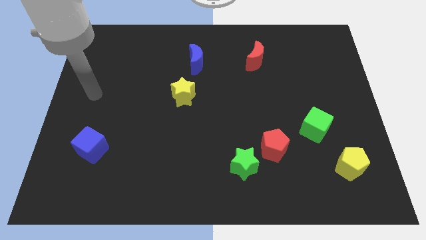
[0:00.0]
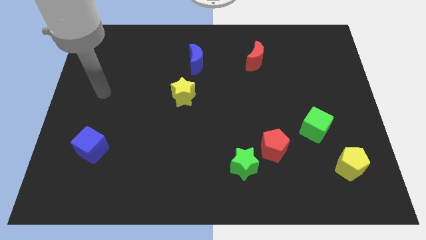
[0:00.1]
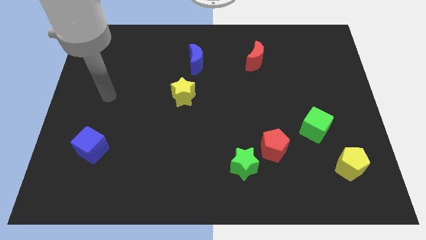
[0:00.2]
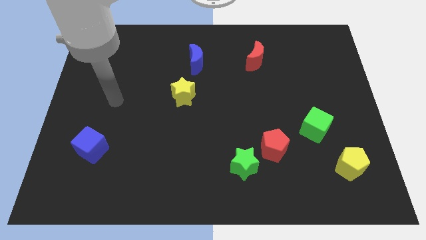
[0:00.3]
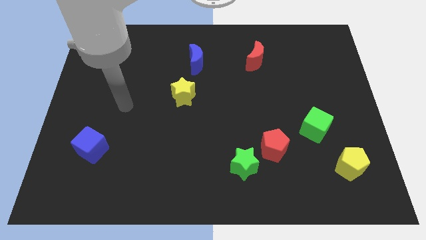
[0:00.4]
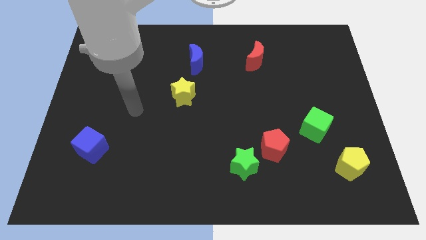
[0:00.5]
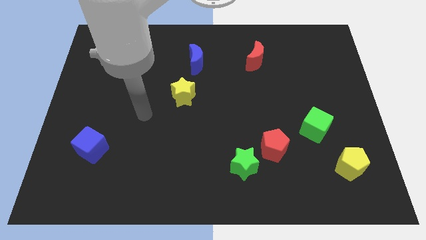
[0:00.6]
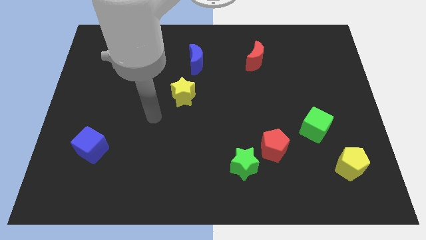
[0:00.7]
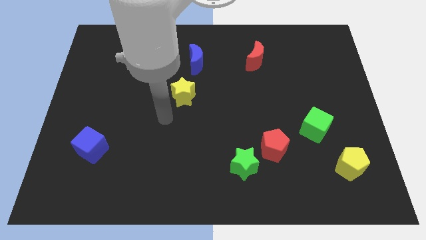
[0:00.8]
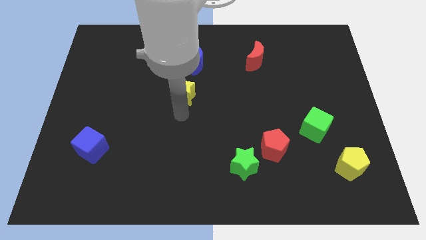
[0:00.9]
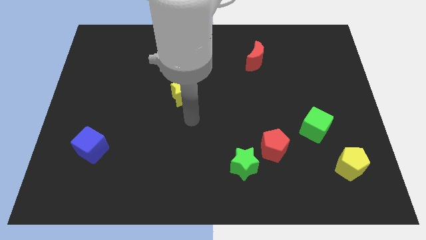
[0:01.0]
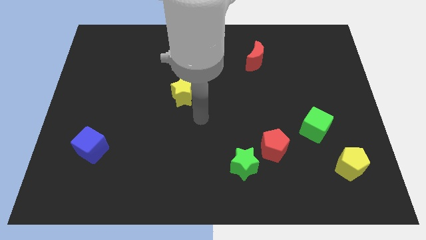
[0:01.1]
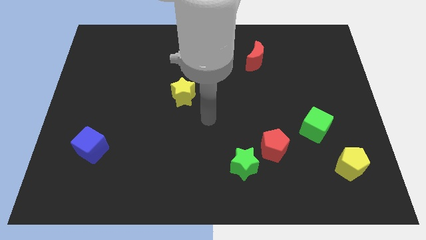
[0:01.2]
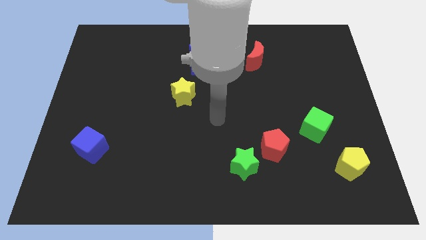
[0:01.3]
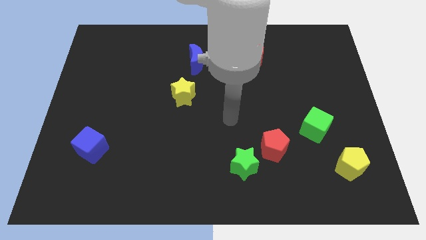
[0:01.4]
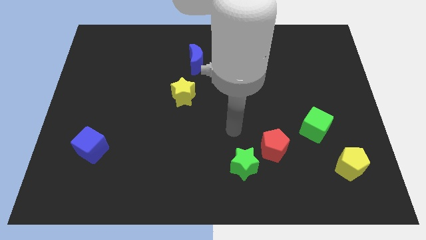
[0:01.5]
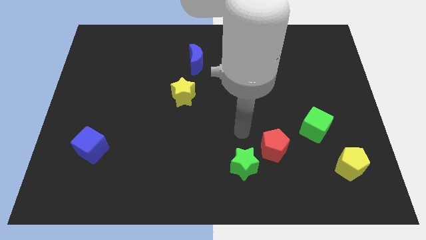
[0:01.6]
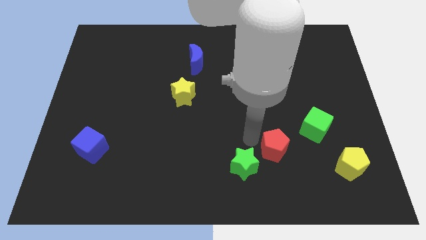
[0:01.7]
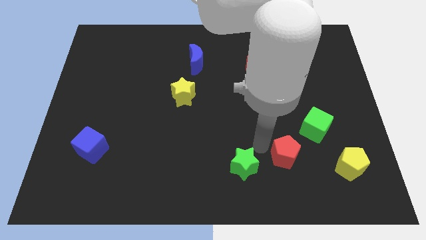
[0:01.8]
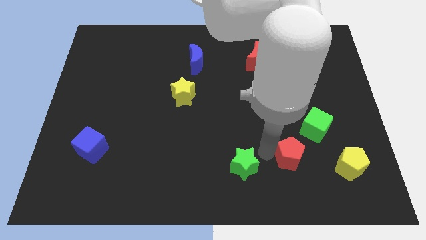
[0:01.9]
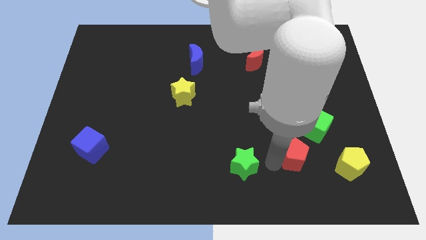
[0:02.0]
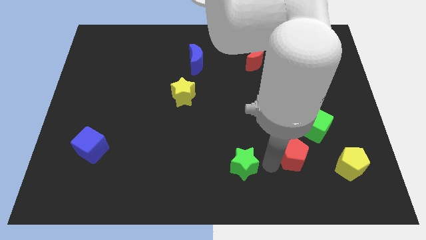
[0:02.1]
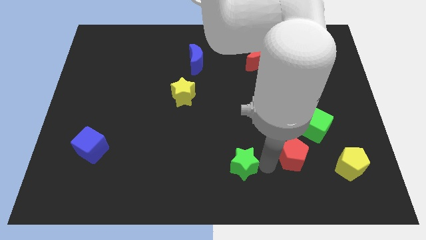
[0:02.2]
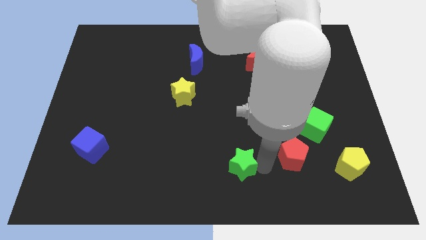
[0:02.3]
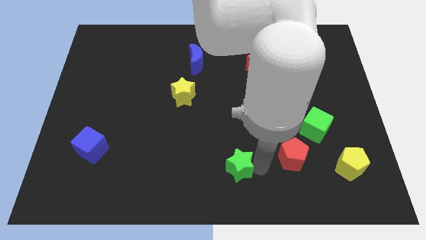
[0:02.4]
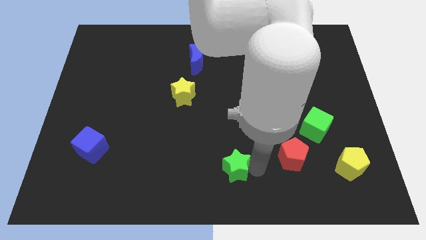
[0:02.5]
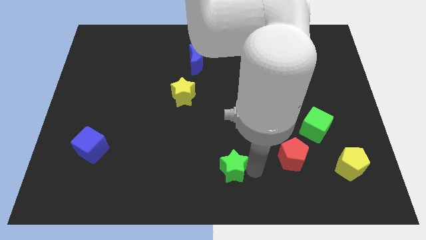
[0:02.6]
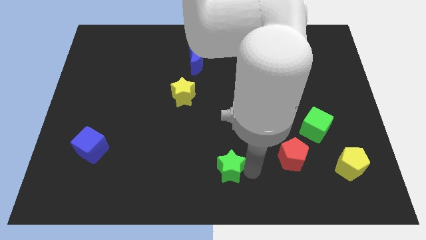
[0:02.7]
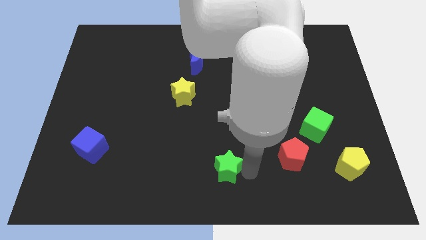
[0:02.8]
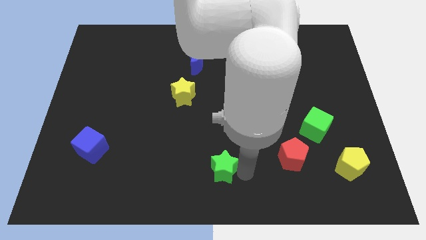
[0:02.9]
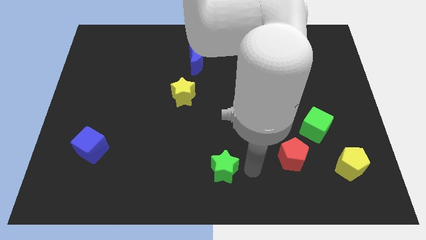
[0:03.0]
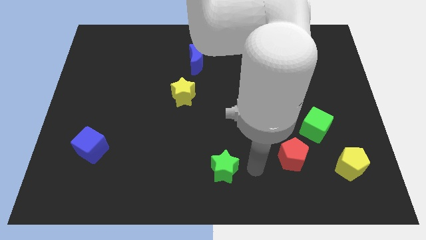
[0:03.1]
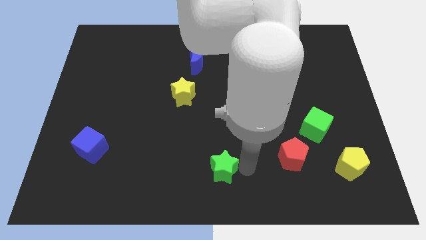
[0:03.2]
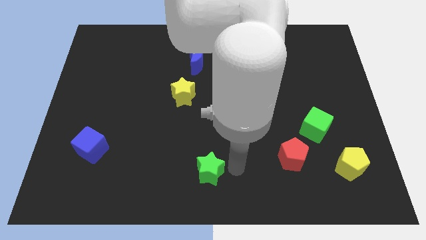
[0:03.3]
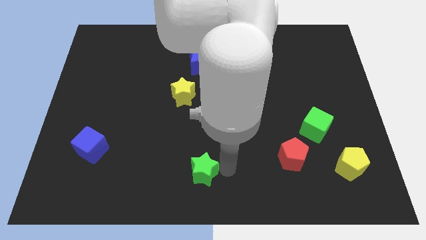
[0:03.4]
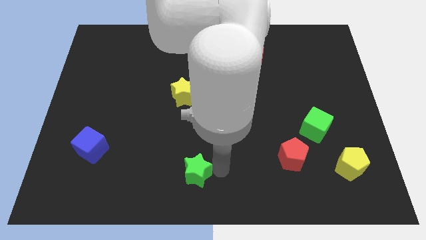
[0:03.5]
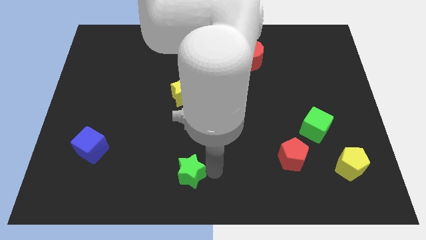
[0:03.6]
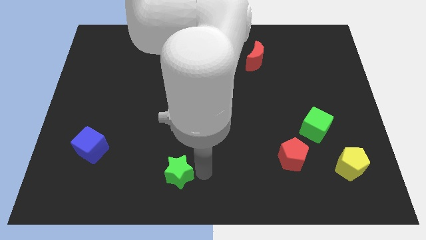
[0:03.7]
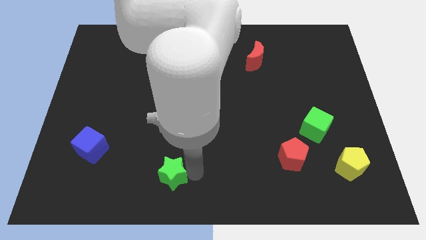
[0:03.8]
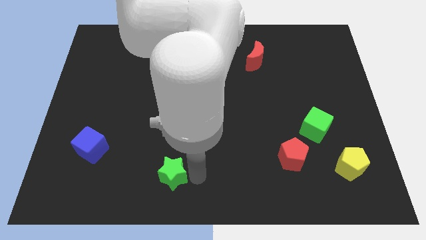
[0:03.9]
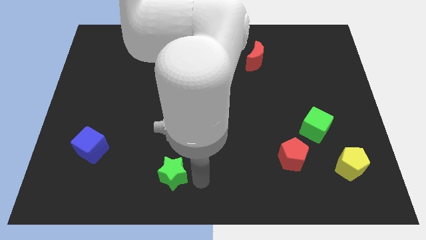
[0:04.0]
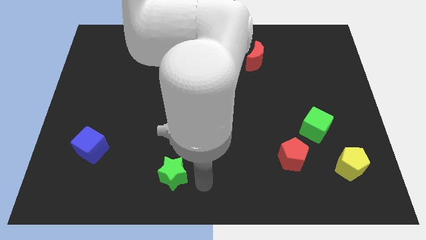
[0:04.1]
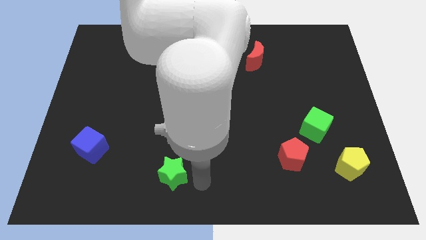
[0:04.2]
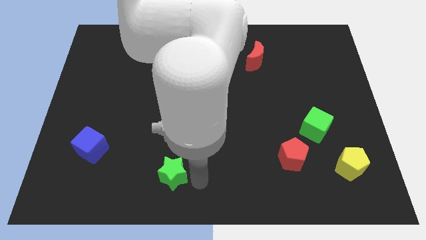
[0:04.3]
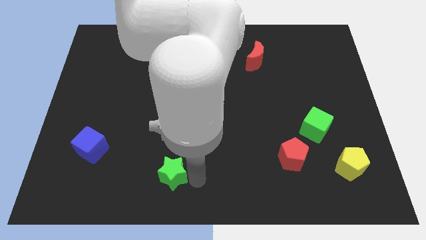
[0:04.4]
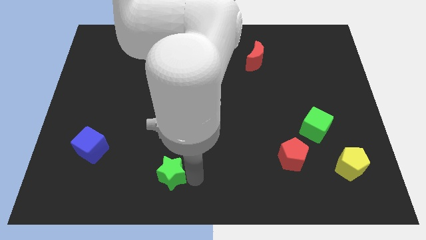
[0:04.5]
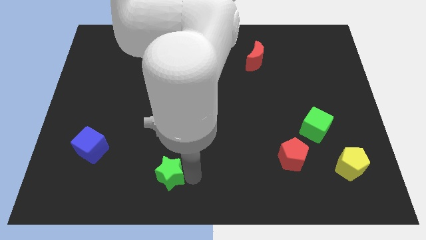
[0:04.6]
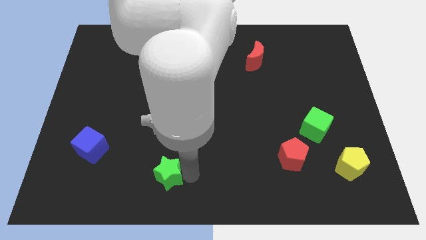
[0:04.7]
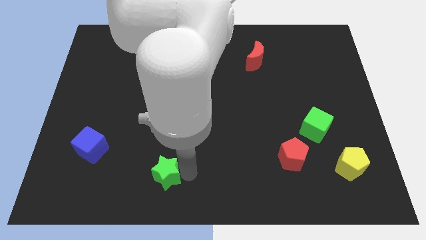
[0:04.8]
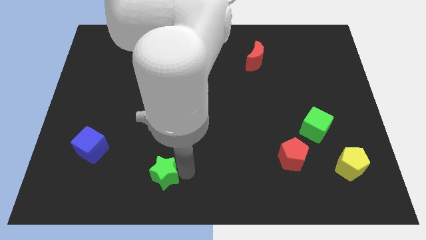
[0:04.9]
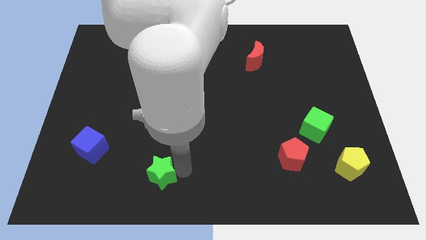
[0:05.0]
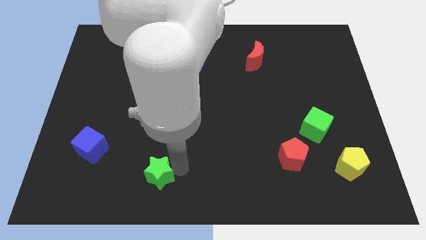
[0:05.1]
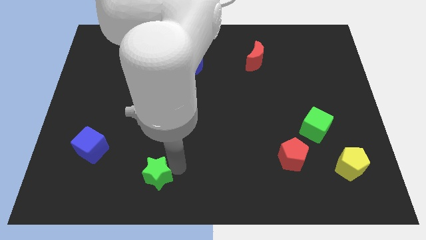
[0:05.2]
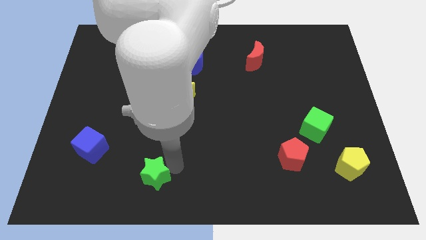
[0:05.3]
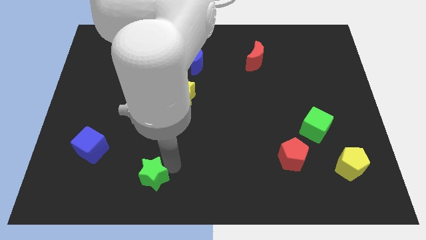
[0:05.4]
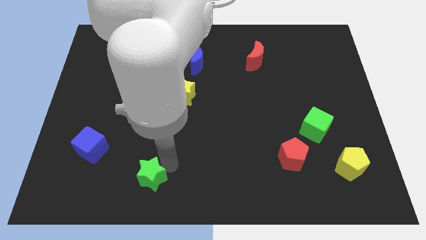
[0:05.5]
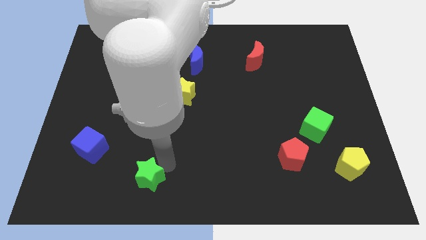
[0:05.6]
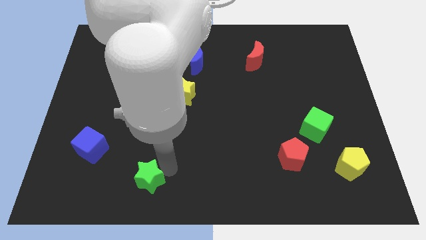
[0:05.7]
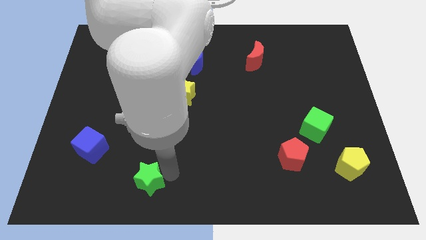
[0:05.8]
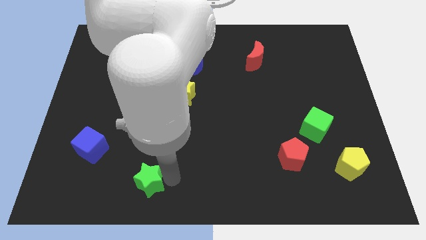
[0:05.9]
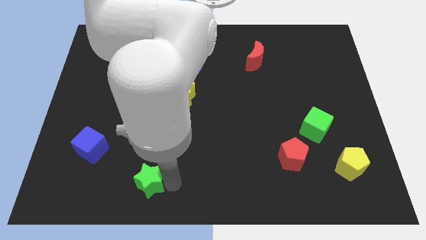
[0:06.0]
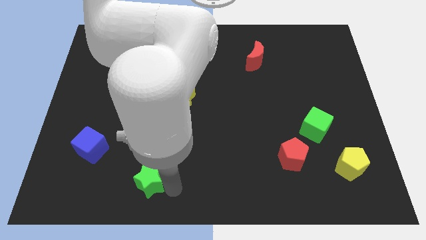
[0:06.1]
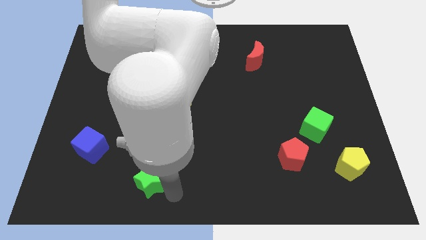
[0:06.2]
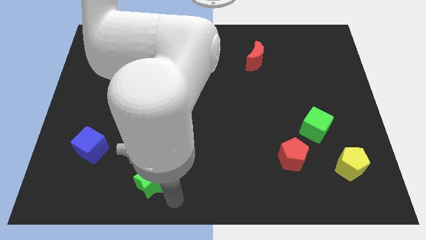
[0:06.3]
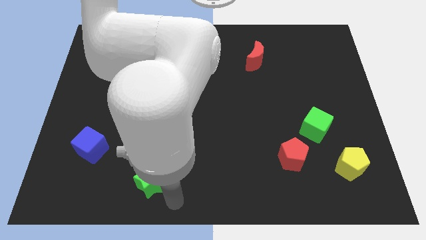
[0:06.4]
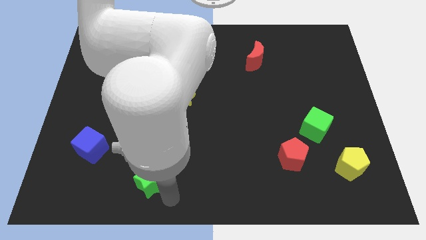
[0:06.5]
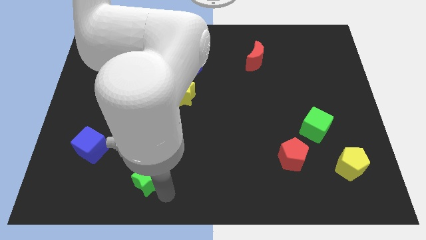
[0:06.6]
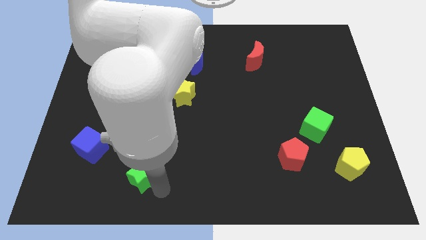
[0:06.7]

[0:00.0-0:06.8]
move the green star to the left

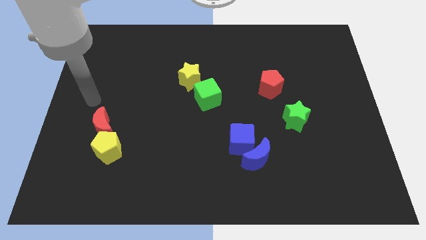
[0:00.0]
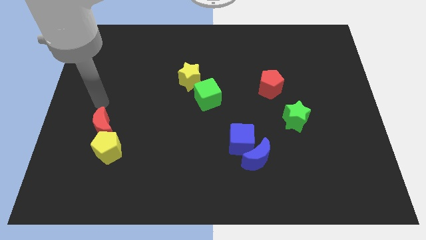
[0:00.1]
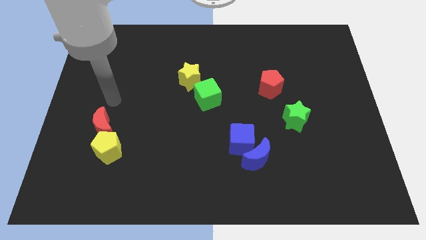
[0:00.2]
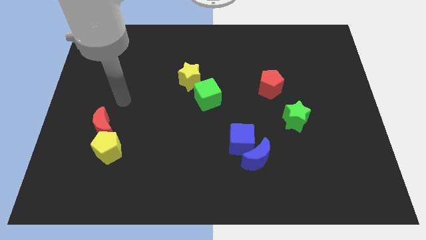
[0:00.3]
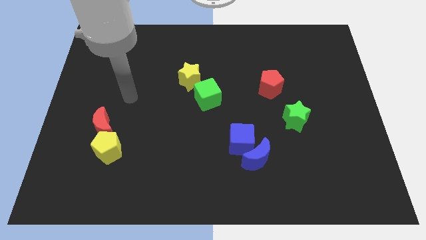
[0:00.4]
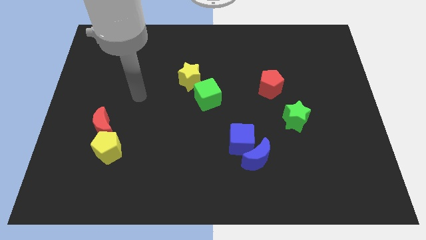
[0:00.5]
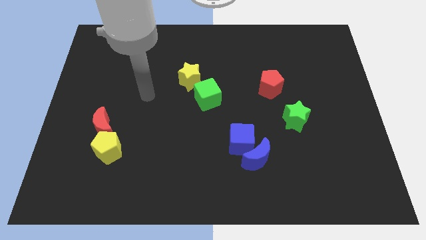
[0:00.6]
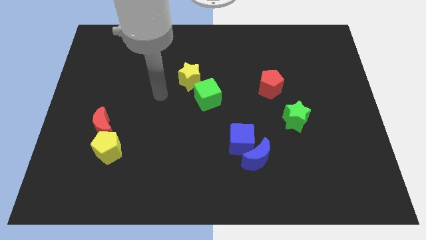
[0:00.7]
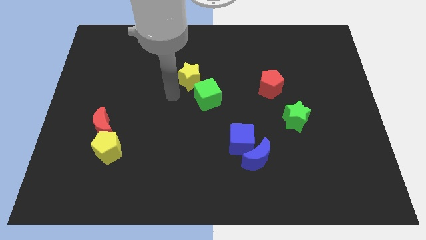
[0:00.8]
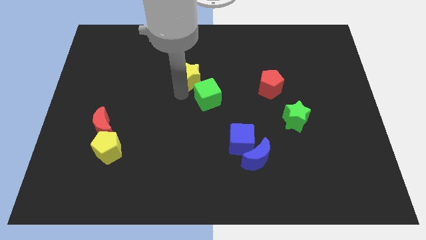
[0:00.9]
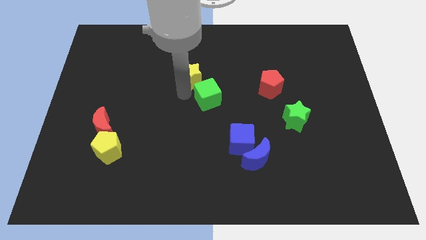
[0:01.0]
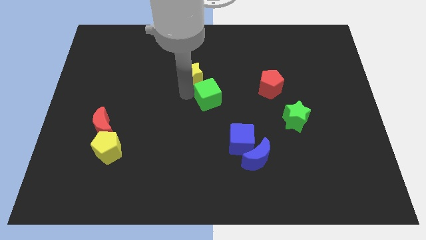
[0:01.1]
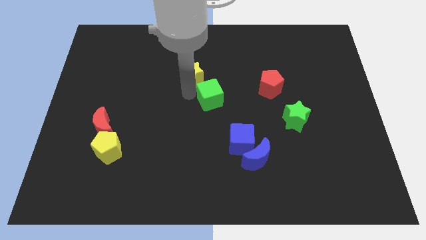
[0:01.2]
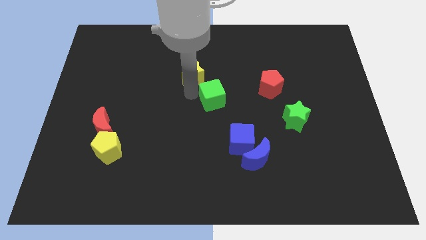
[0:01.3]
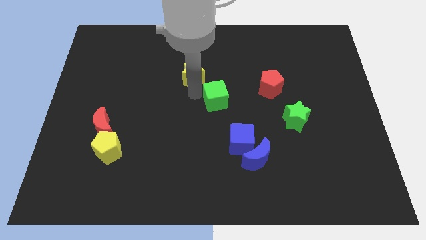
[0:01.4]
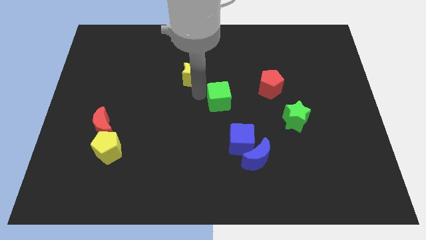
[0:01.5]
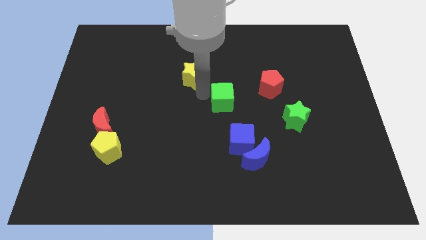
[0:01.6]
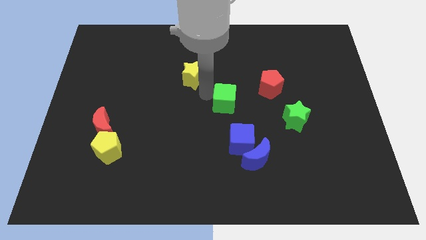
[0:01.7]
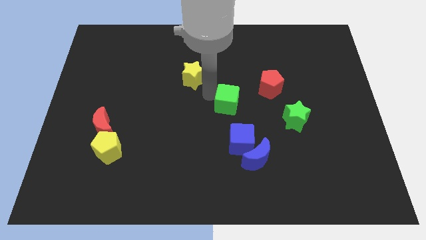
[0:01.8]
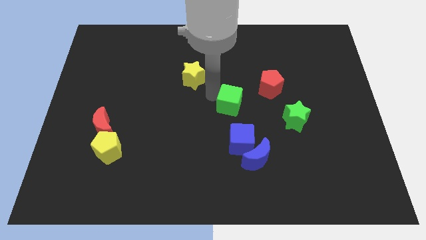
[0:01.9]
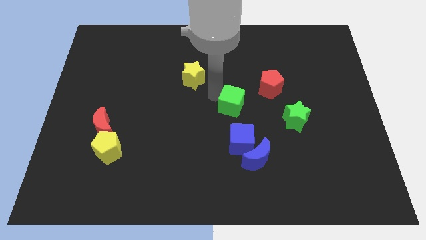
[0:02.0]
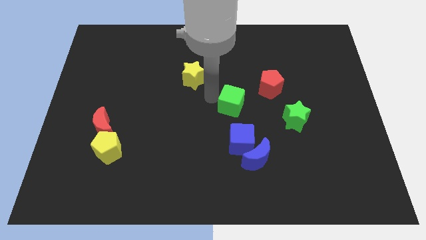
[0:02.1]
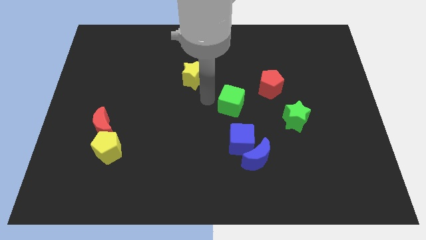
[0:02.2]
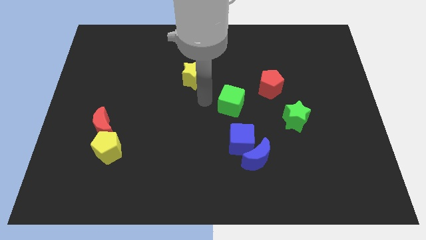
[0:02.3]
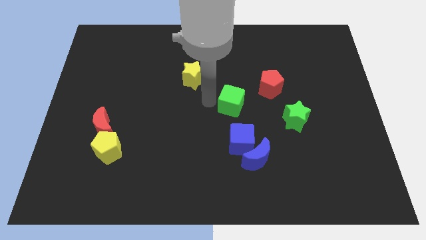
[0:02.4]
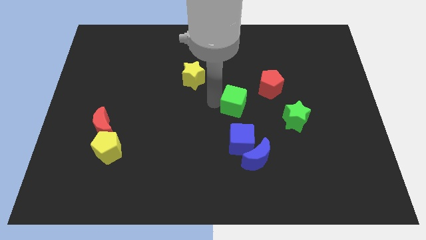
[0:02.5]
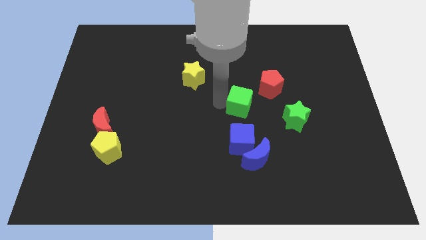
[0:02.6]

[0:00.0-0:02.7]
push the green cube to the right slightly
